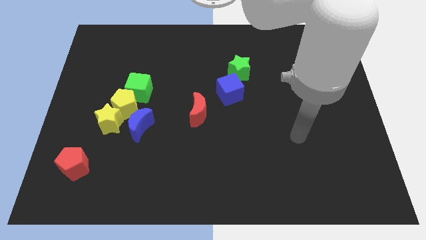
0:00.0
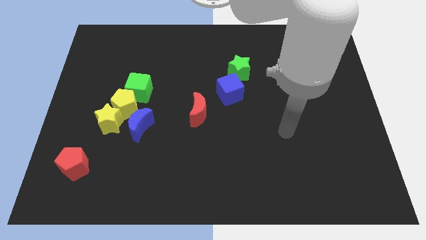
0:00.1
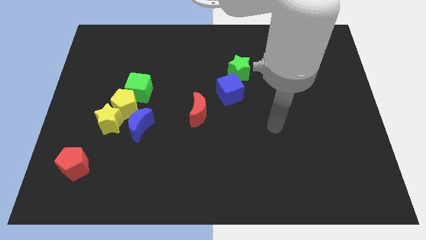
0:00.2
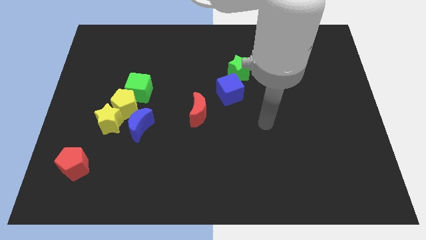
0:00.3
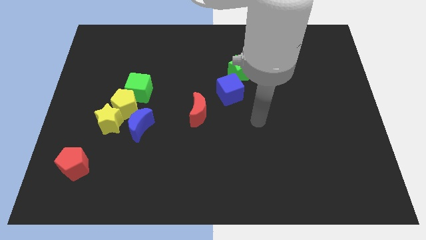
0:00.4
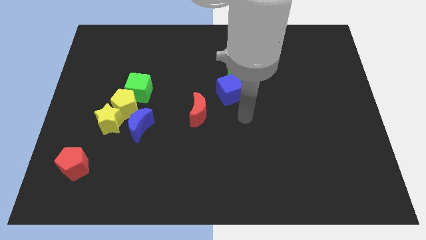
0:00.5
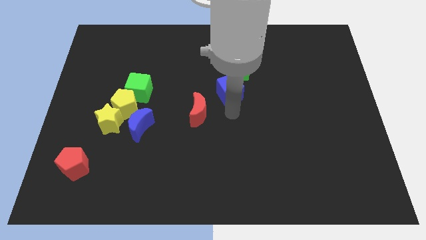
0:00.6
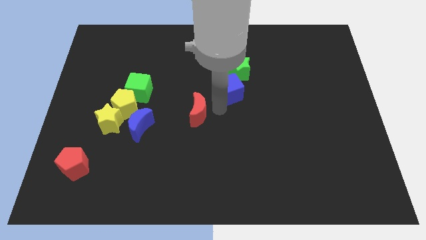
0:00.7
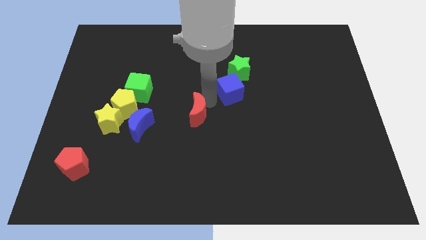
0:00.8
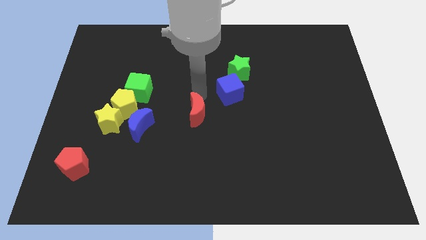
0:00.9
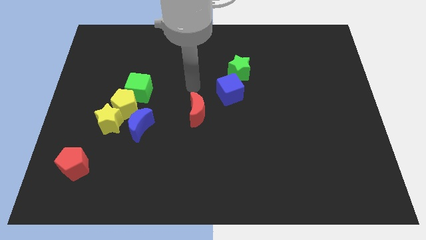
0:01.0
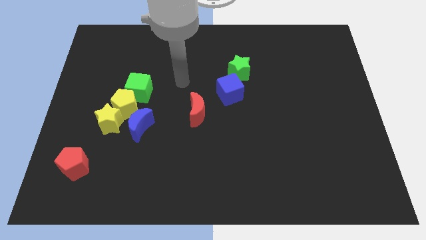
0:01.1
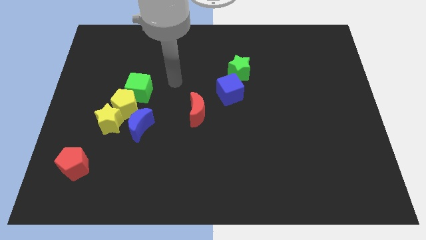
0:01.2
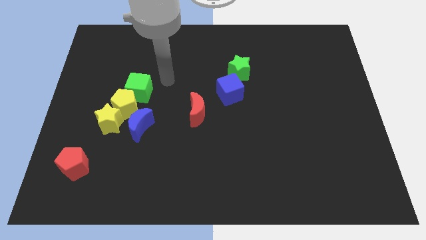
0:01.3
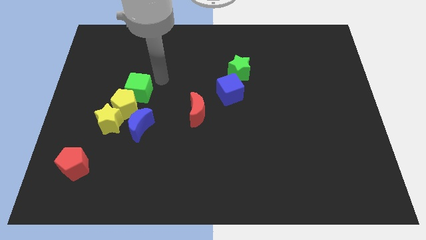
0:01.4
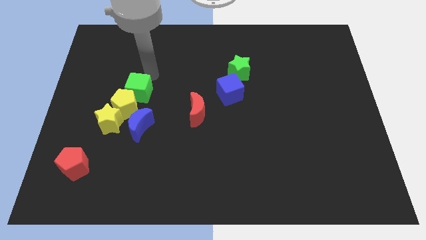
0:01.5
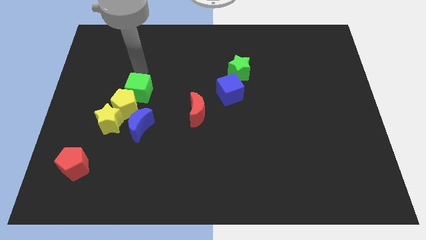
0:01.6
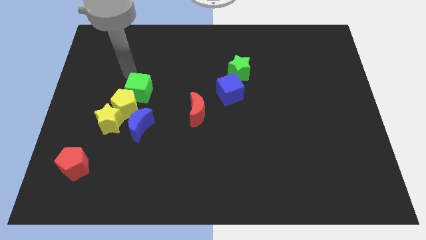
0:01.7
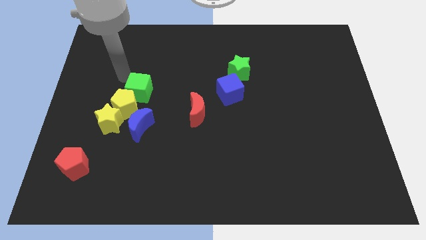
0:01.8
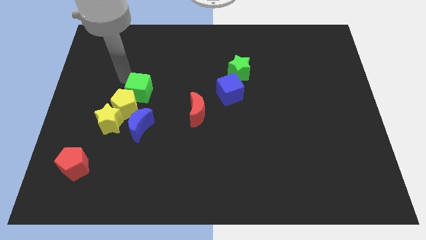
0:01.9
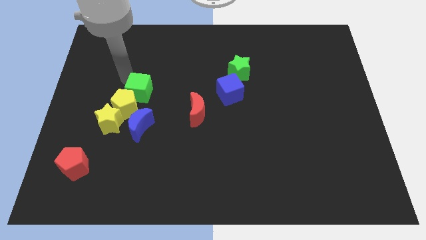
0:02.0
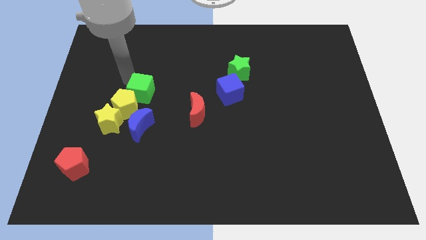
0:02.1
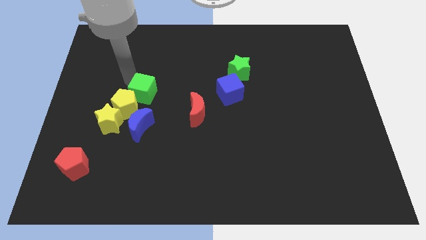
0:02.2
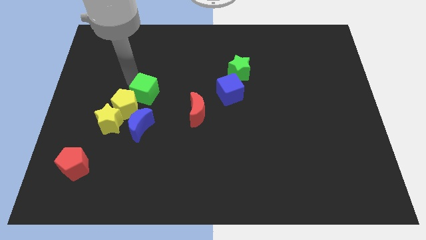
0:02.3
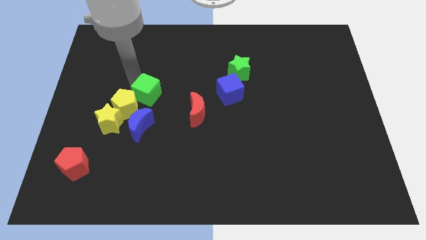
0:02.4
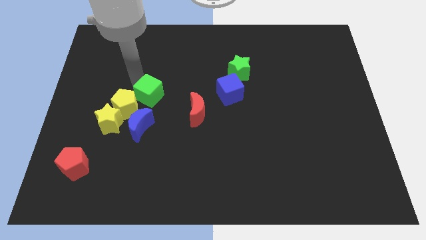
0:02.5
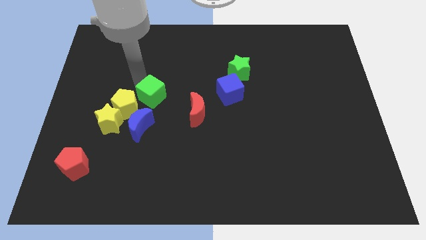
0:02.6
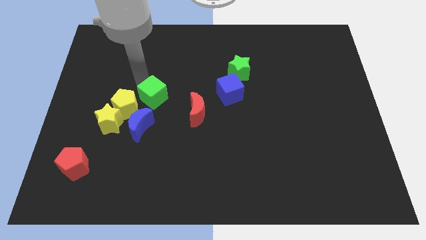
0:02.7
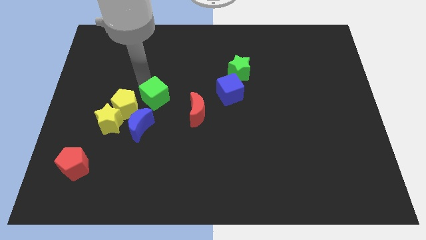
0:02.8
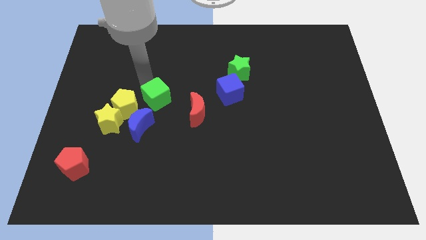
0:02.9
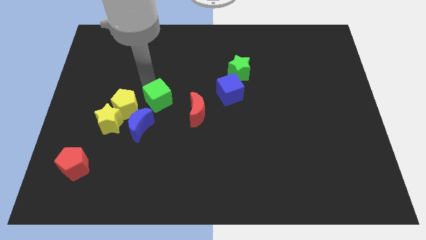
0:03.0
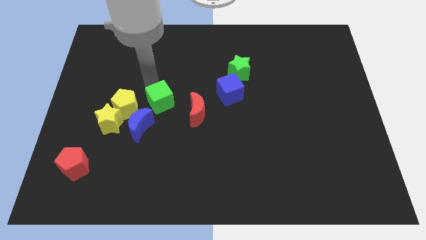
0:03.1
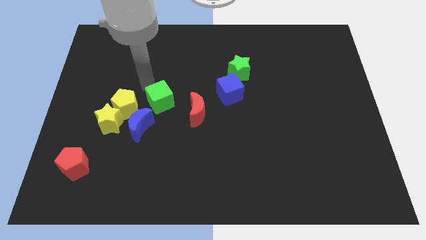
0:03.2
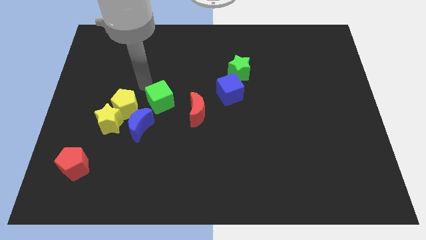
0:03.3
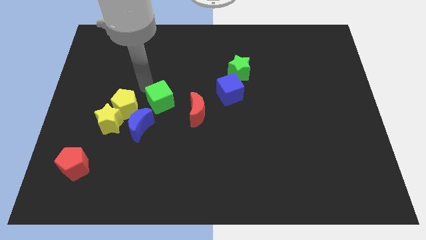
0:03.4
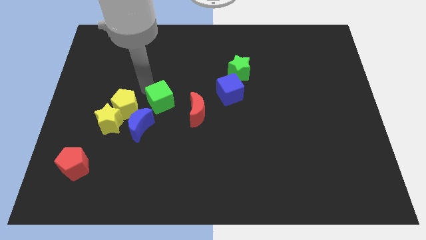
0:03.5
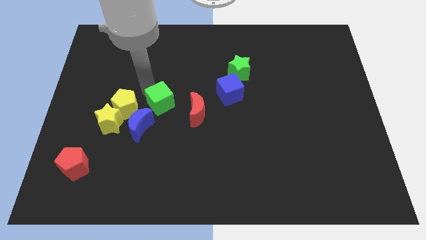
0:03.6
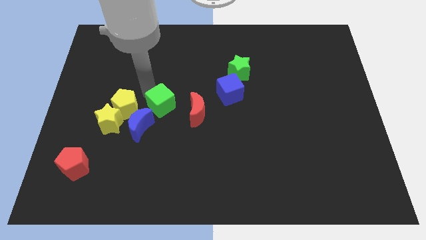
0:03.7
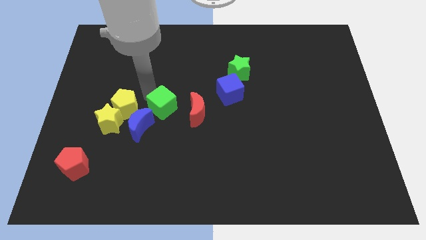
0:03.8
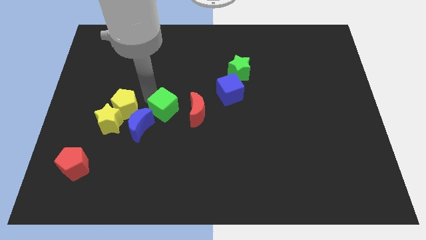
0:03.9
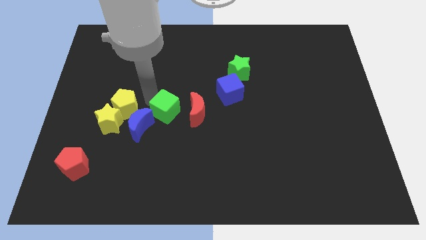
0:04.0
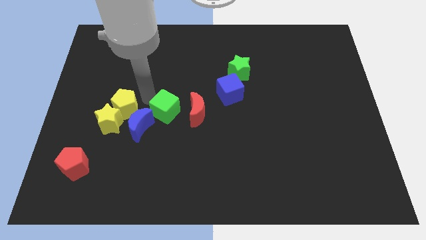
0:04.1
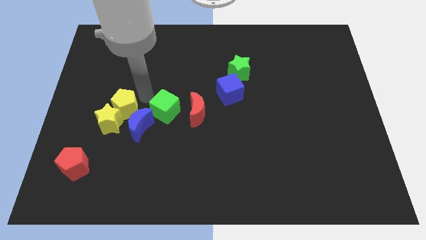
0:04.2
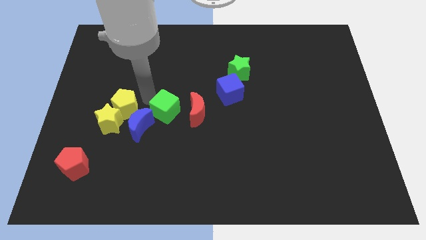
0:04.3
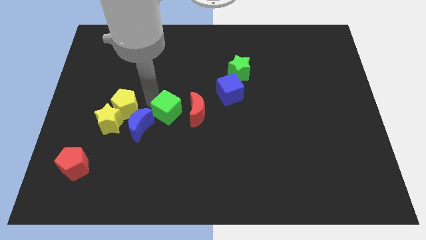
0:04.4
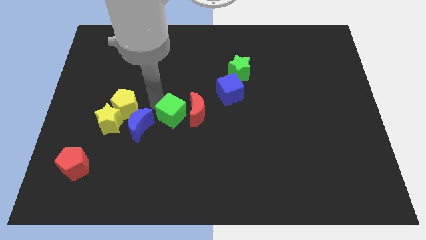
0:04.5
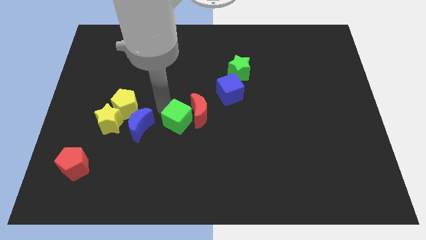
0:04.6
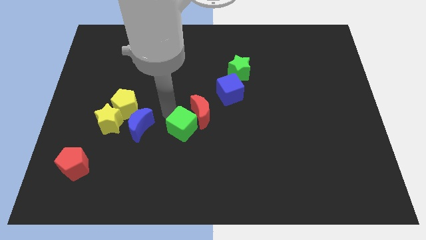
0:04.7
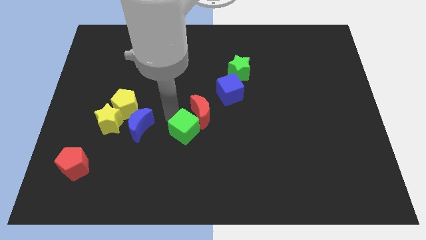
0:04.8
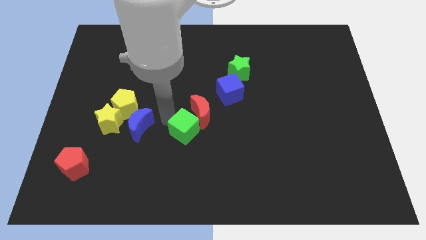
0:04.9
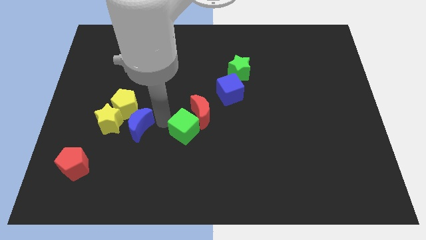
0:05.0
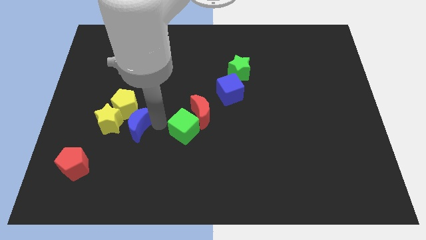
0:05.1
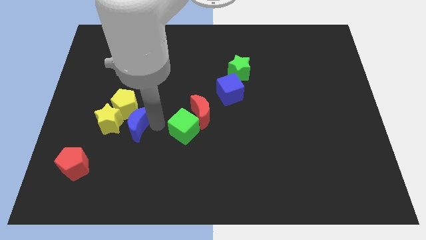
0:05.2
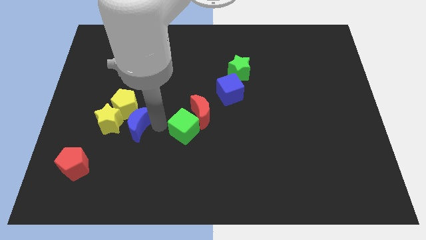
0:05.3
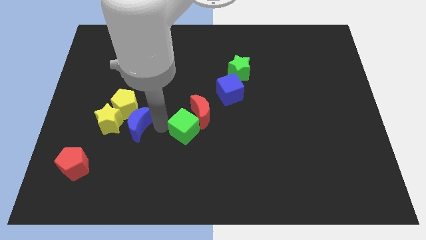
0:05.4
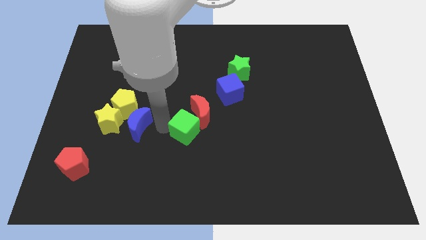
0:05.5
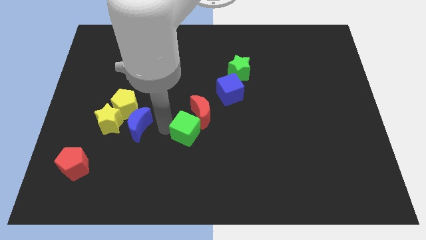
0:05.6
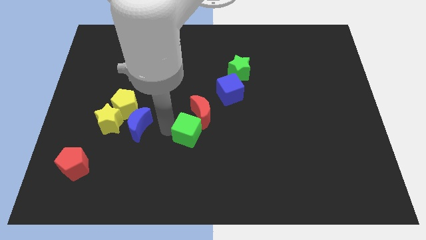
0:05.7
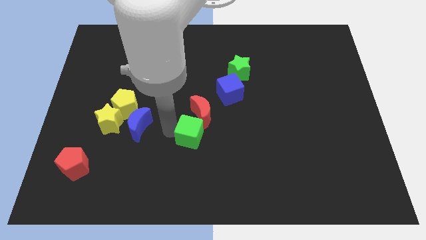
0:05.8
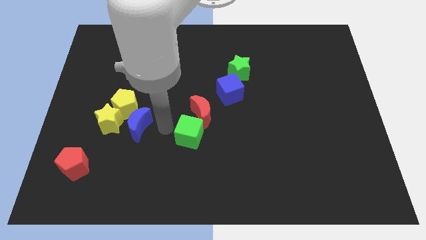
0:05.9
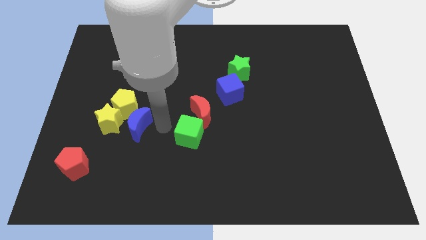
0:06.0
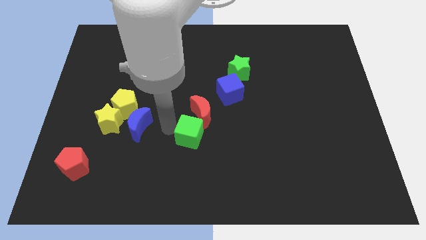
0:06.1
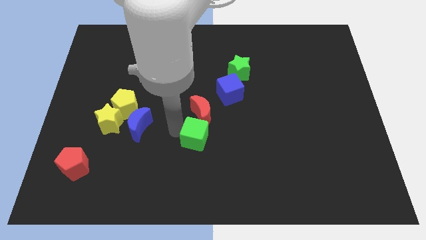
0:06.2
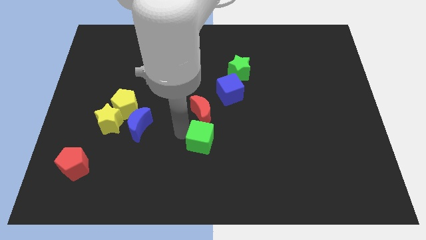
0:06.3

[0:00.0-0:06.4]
push the green cube down and then to the right

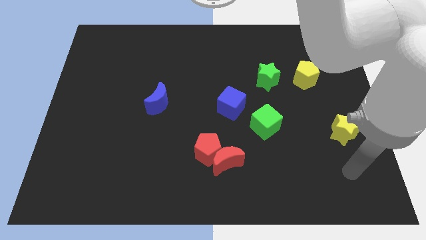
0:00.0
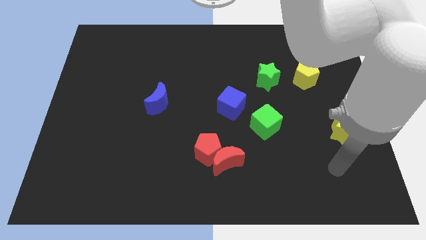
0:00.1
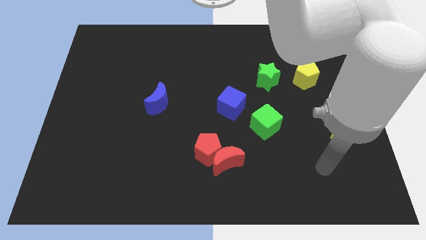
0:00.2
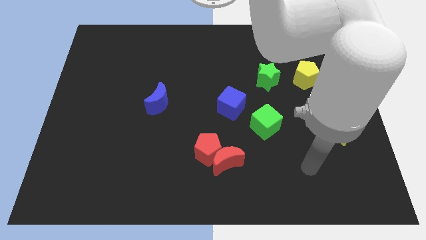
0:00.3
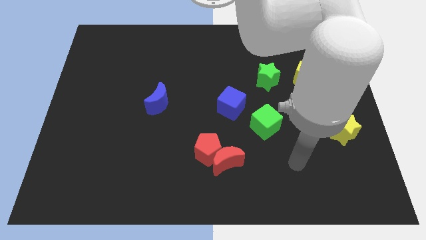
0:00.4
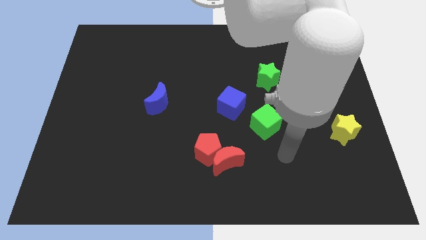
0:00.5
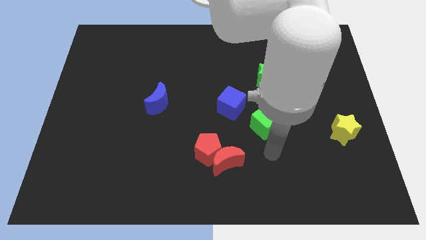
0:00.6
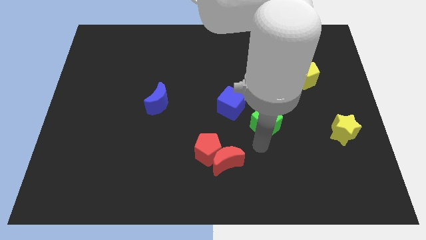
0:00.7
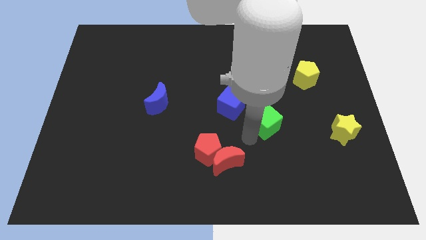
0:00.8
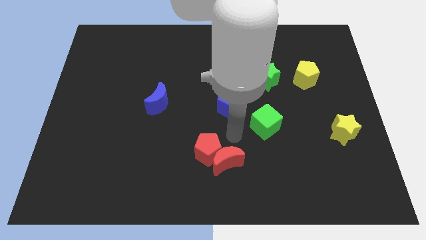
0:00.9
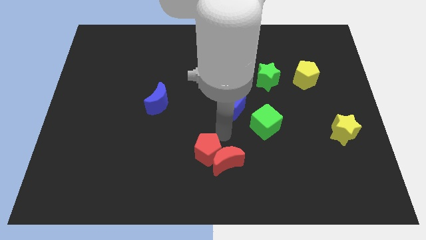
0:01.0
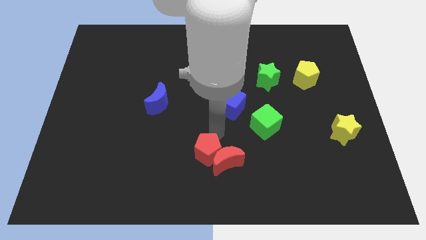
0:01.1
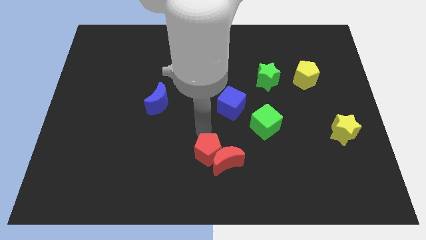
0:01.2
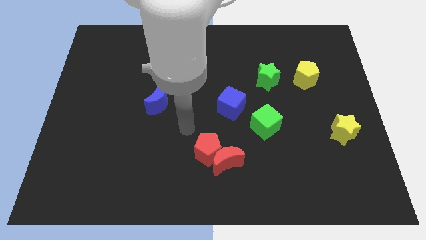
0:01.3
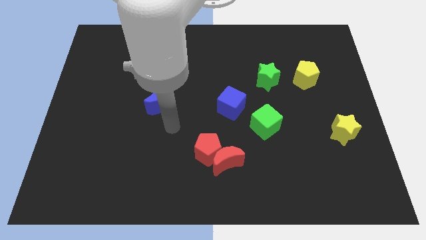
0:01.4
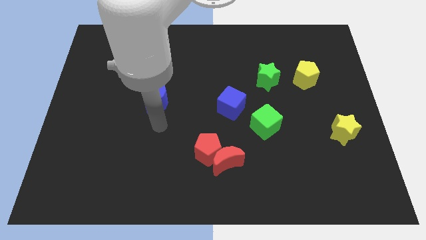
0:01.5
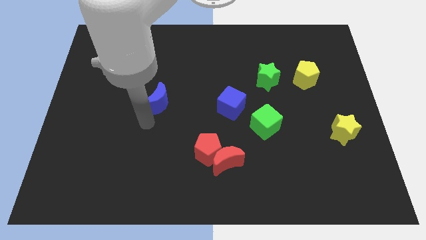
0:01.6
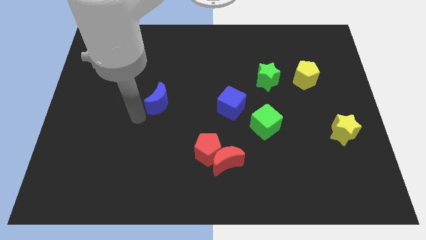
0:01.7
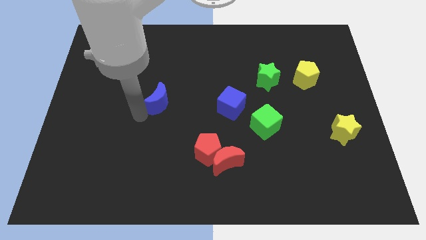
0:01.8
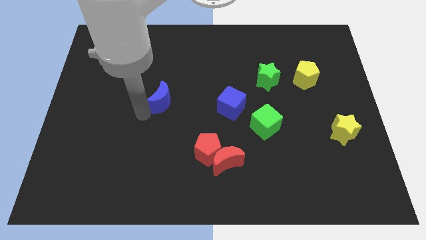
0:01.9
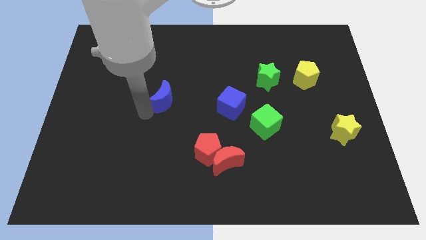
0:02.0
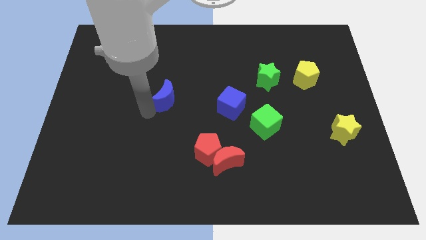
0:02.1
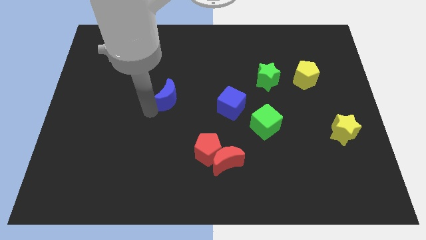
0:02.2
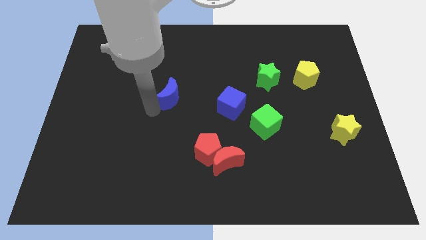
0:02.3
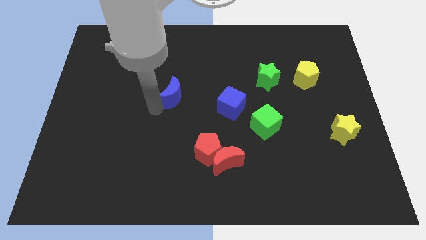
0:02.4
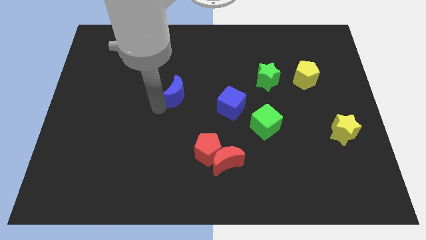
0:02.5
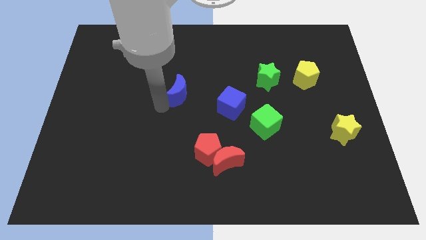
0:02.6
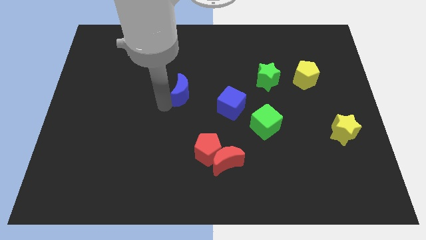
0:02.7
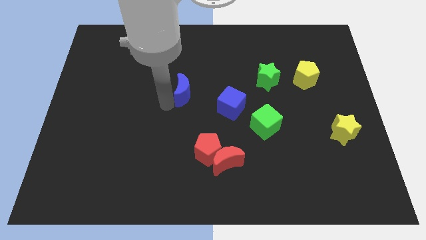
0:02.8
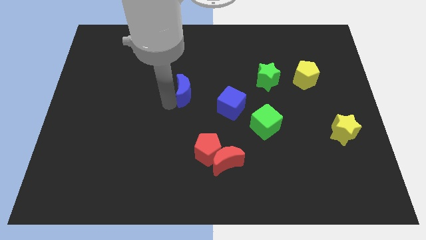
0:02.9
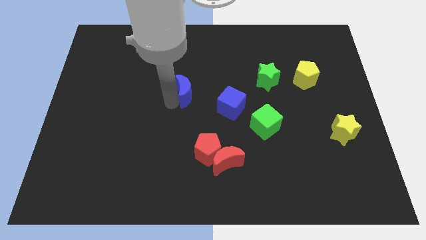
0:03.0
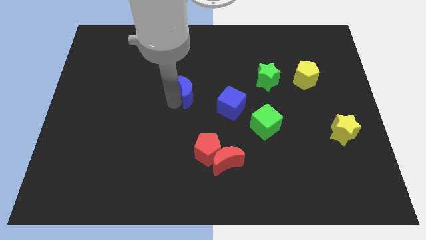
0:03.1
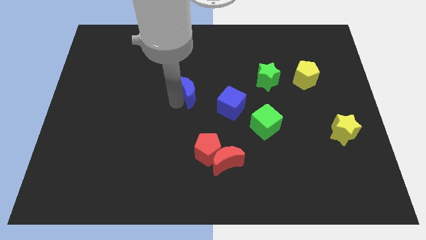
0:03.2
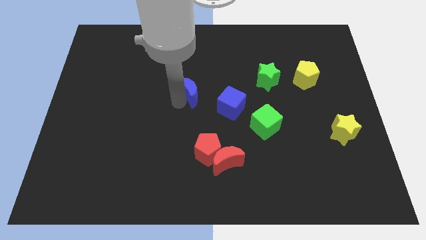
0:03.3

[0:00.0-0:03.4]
push the blue moon up and to the right slightly
